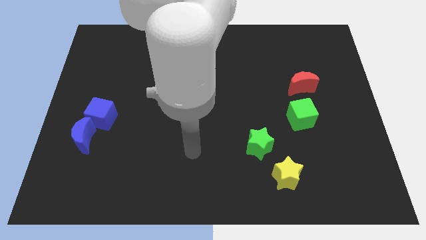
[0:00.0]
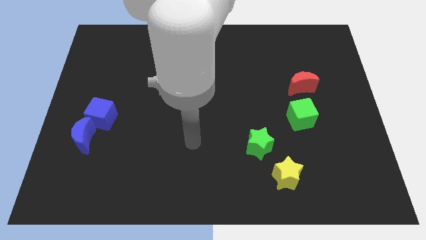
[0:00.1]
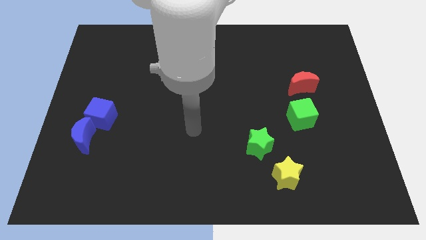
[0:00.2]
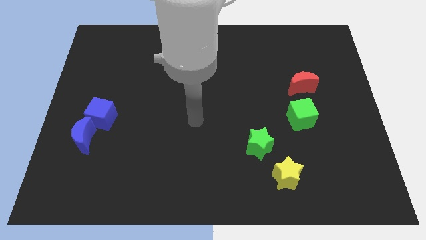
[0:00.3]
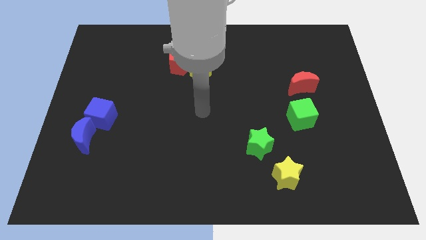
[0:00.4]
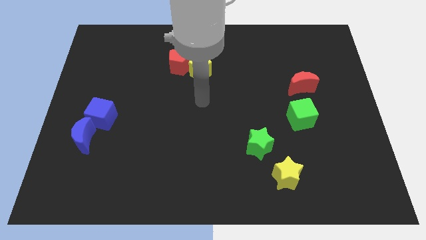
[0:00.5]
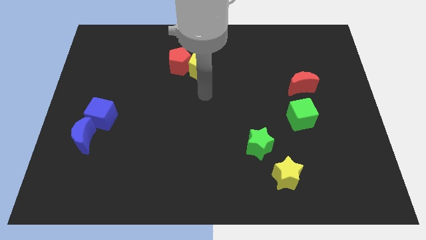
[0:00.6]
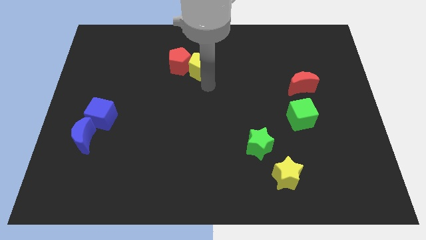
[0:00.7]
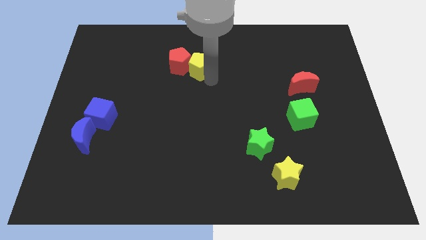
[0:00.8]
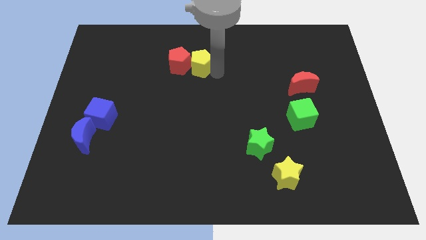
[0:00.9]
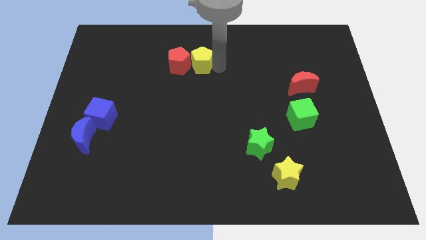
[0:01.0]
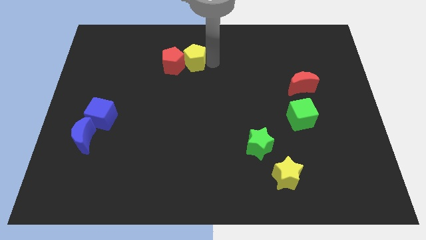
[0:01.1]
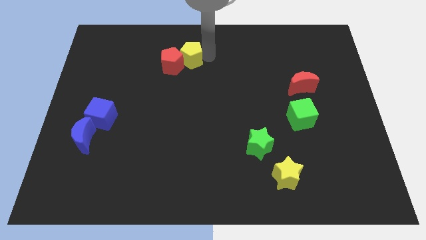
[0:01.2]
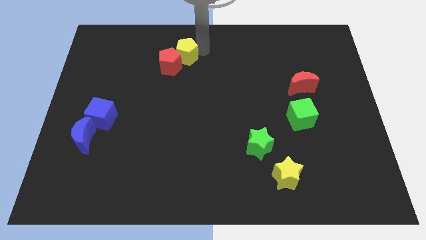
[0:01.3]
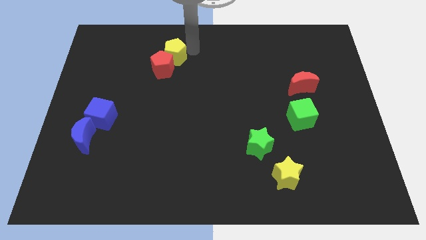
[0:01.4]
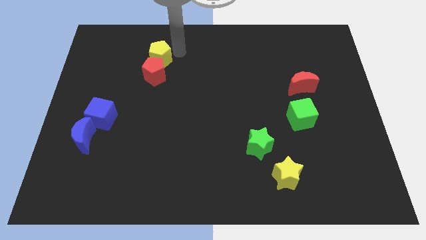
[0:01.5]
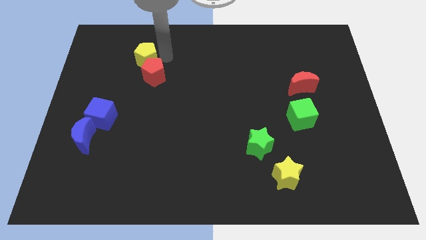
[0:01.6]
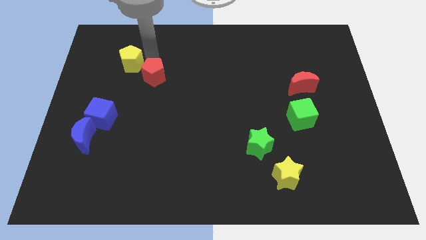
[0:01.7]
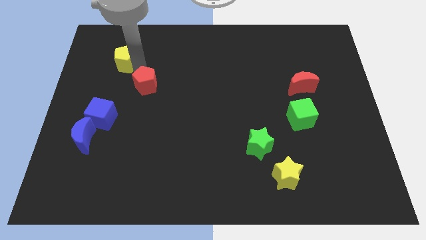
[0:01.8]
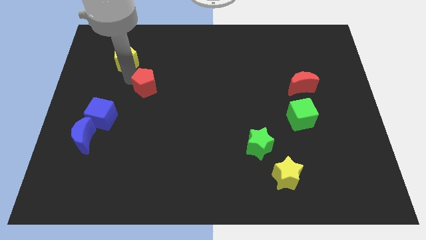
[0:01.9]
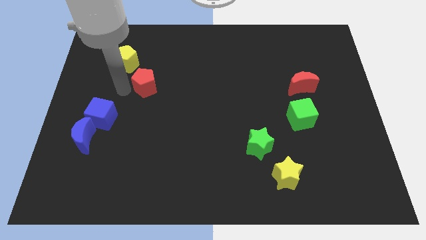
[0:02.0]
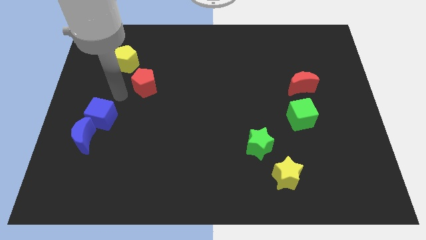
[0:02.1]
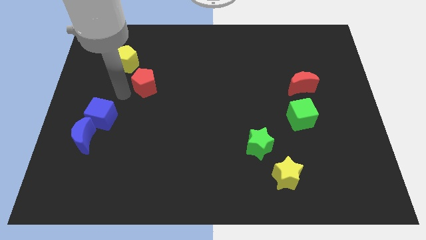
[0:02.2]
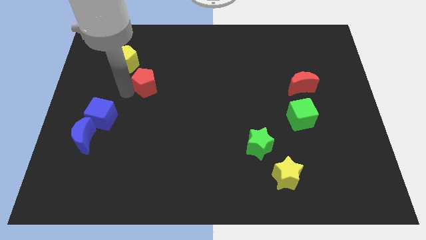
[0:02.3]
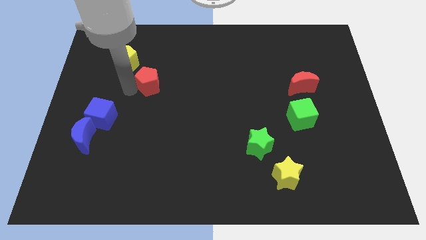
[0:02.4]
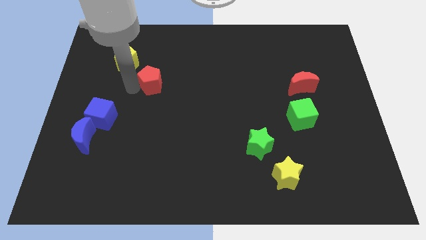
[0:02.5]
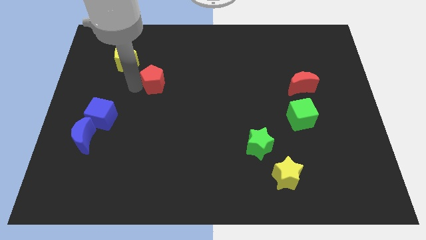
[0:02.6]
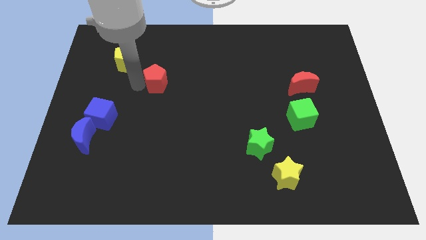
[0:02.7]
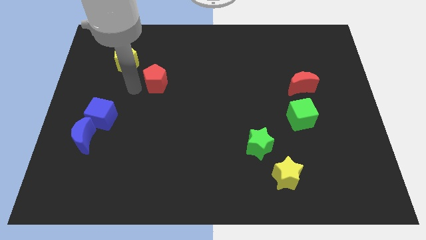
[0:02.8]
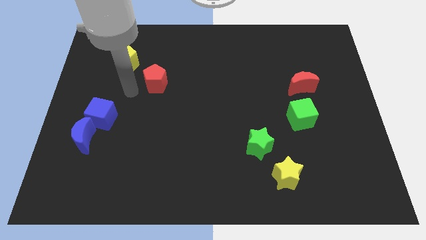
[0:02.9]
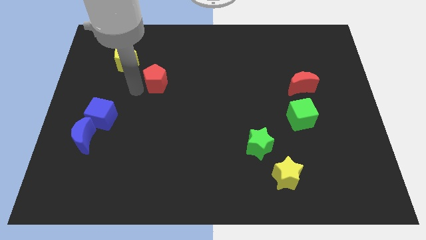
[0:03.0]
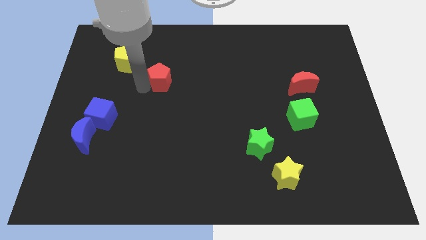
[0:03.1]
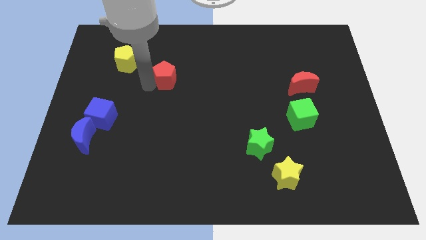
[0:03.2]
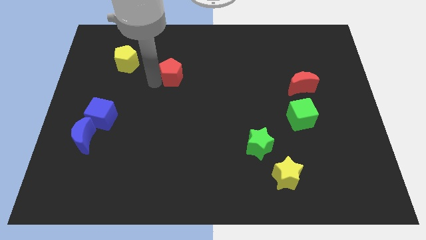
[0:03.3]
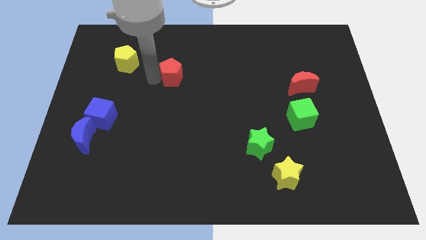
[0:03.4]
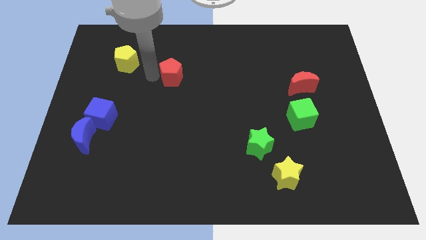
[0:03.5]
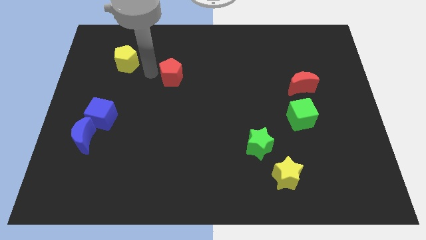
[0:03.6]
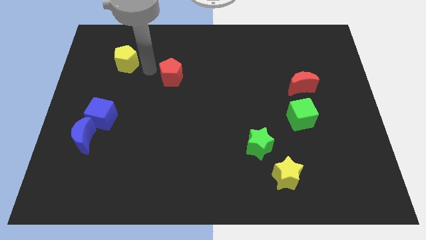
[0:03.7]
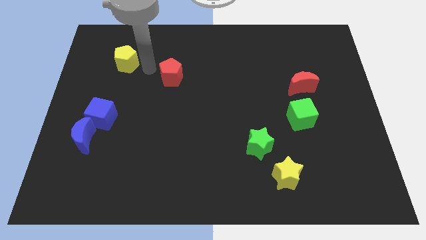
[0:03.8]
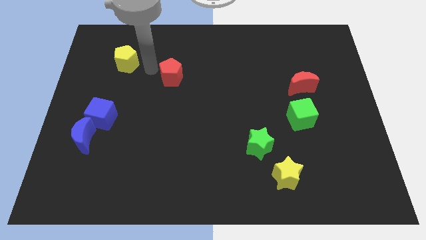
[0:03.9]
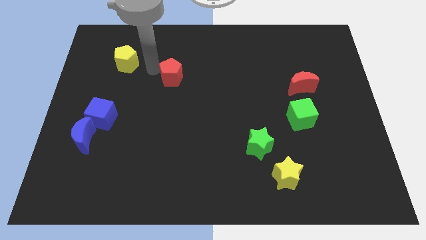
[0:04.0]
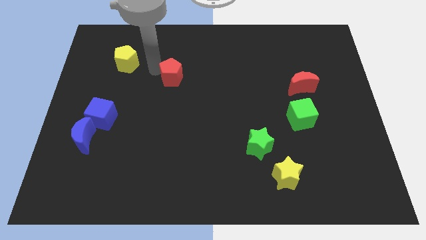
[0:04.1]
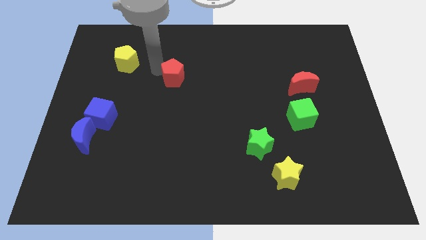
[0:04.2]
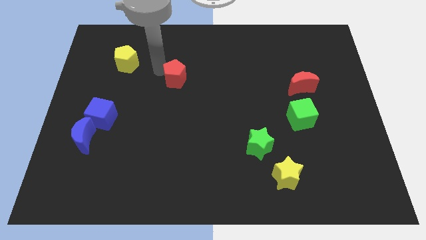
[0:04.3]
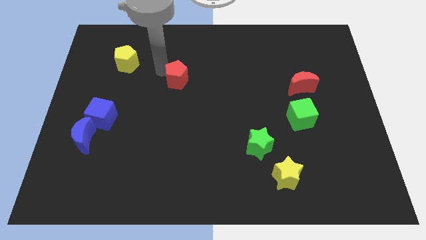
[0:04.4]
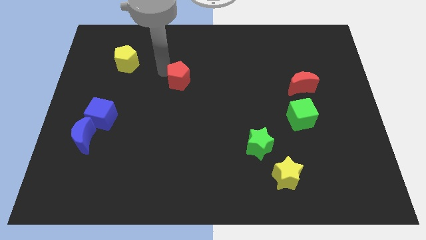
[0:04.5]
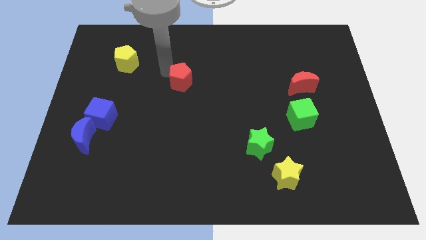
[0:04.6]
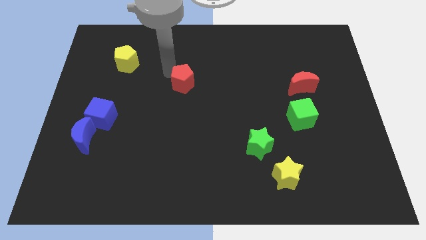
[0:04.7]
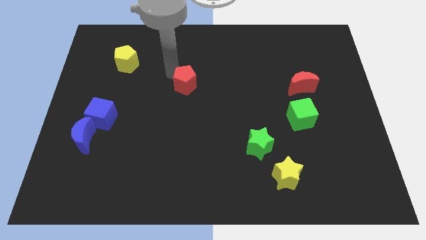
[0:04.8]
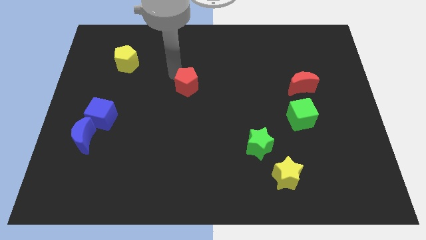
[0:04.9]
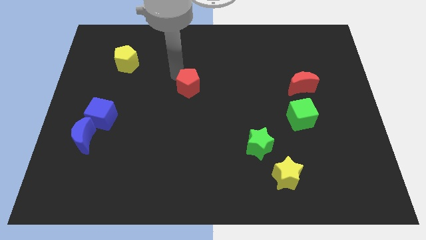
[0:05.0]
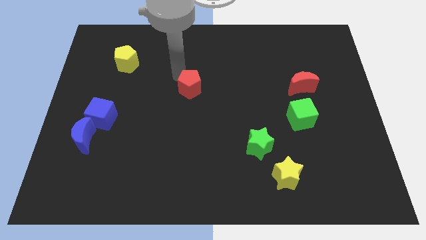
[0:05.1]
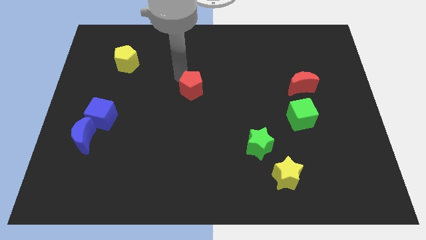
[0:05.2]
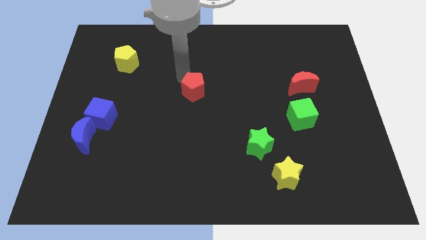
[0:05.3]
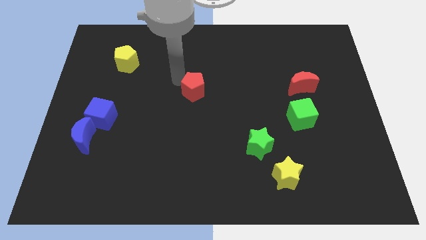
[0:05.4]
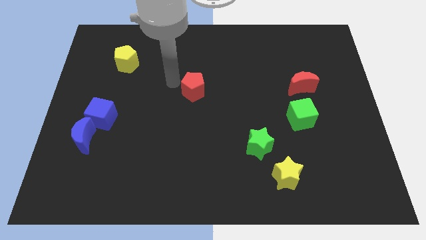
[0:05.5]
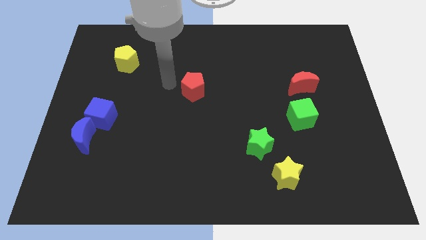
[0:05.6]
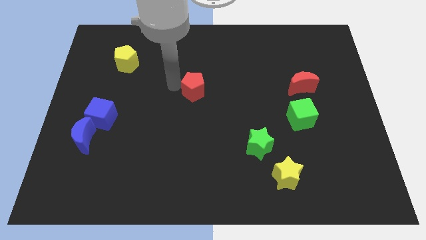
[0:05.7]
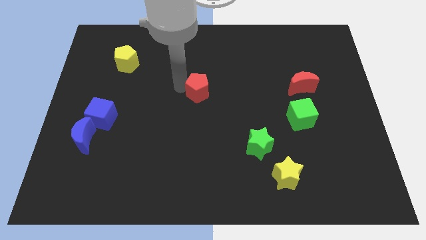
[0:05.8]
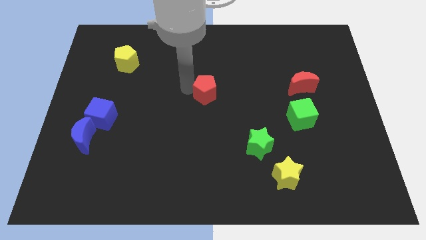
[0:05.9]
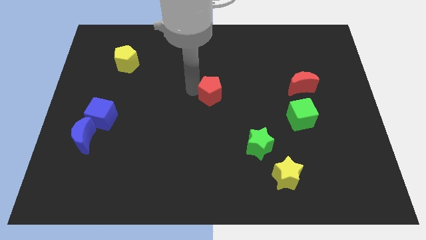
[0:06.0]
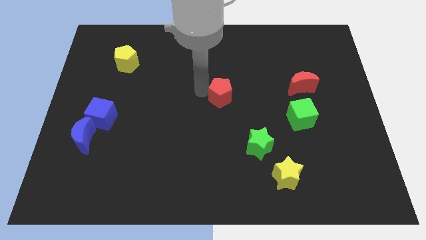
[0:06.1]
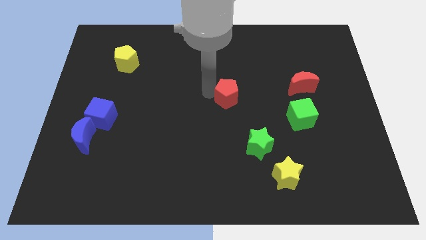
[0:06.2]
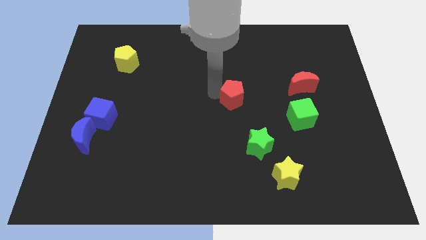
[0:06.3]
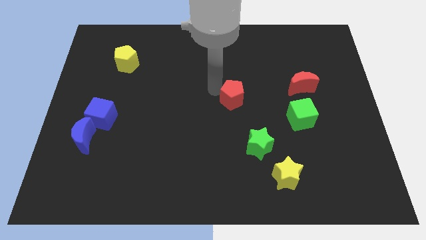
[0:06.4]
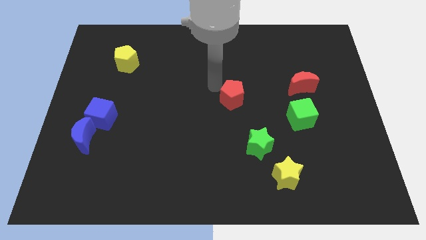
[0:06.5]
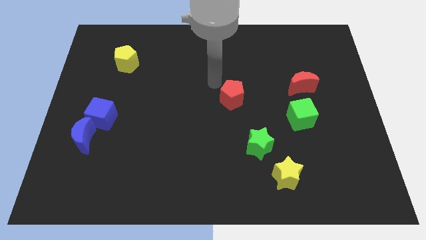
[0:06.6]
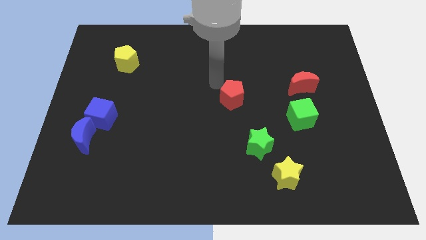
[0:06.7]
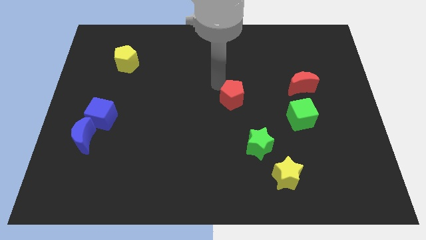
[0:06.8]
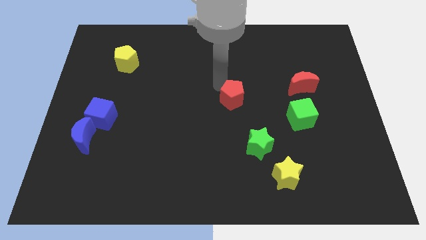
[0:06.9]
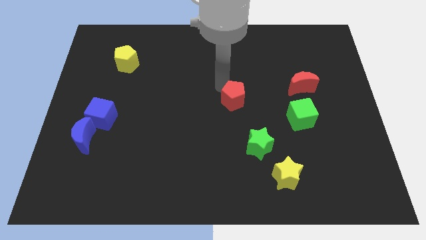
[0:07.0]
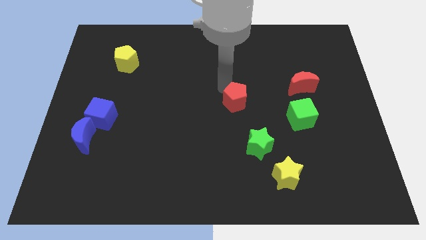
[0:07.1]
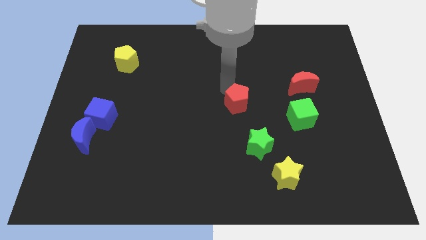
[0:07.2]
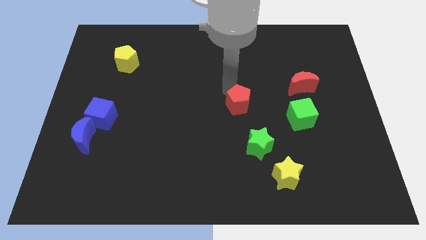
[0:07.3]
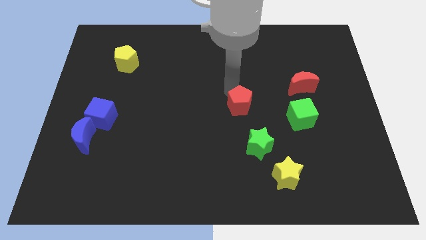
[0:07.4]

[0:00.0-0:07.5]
push the red pentagon down and right

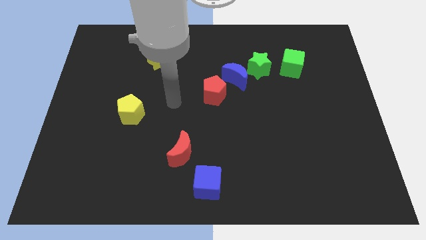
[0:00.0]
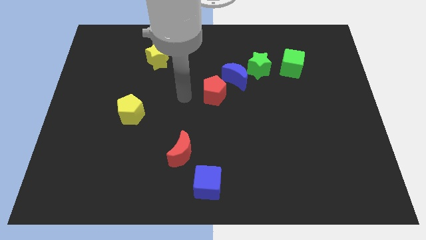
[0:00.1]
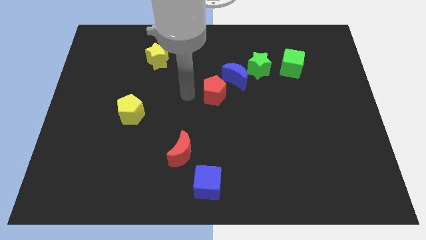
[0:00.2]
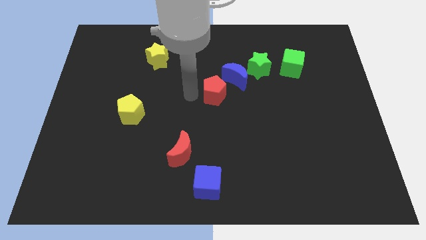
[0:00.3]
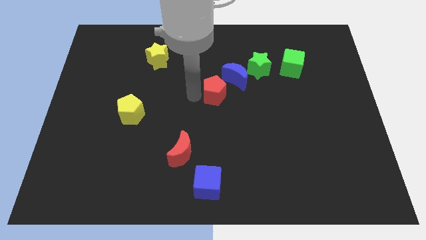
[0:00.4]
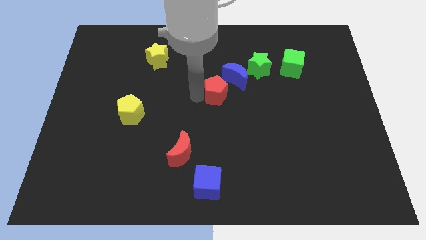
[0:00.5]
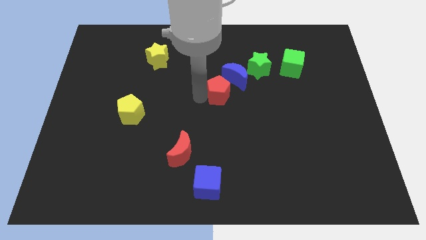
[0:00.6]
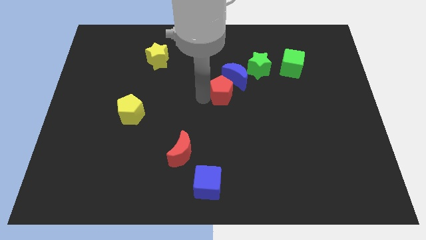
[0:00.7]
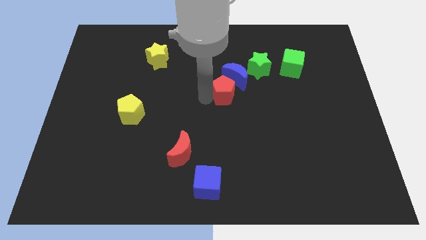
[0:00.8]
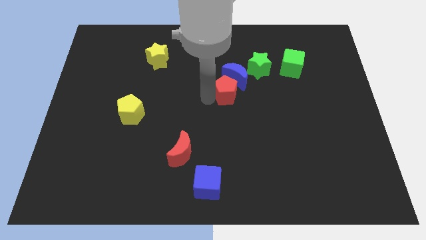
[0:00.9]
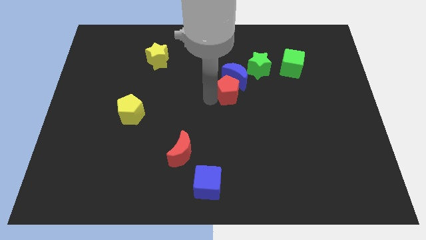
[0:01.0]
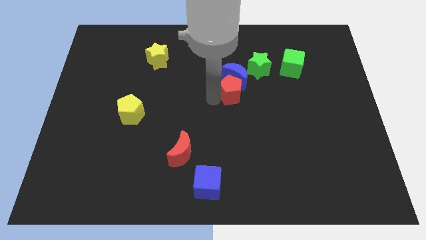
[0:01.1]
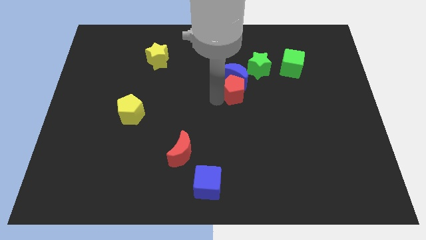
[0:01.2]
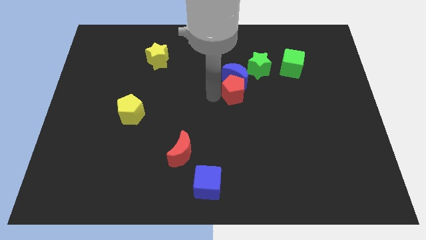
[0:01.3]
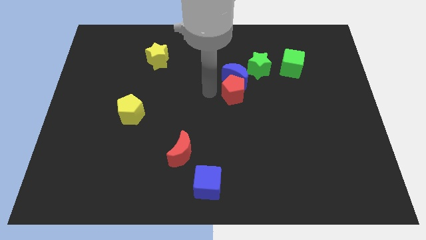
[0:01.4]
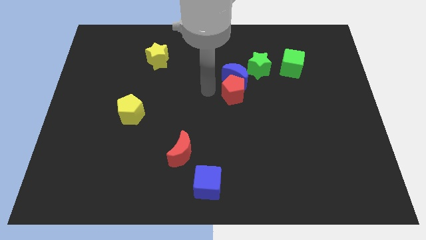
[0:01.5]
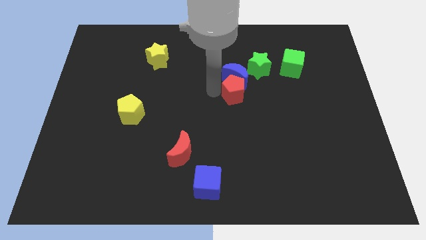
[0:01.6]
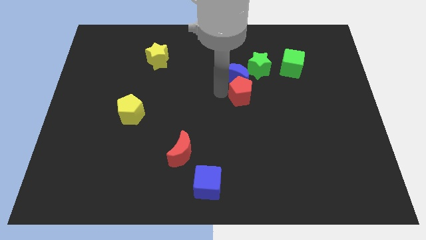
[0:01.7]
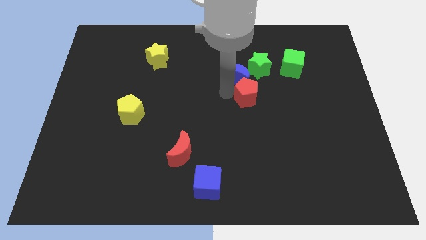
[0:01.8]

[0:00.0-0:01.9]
move the red pentagon somewhat right
